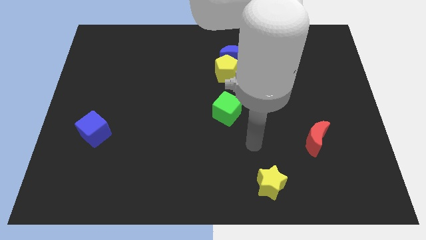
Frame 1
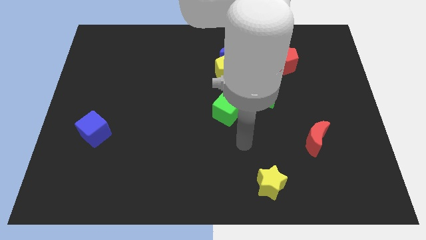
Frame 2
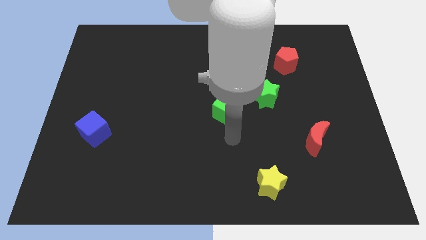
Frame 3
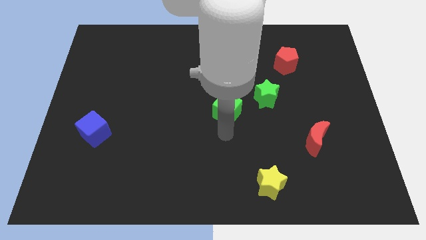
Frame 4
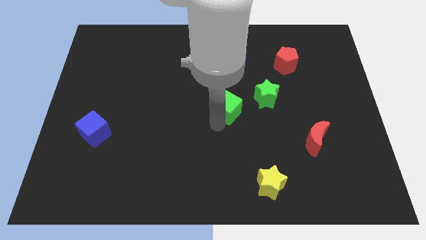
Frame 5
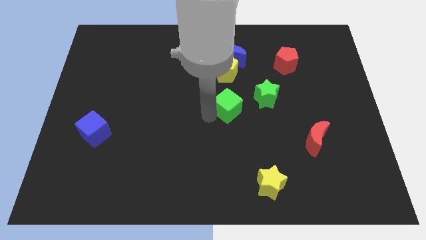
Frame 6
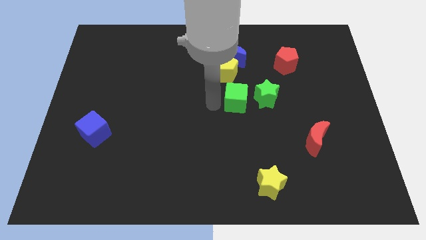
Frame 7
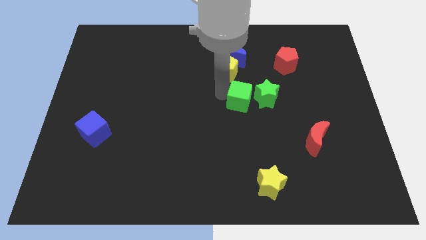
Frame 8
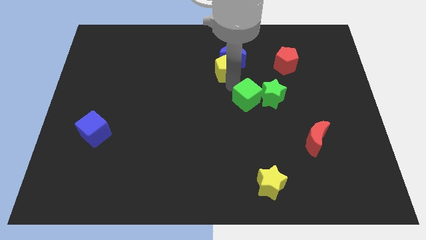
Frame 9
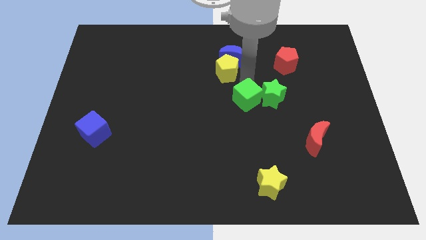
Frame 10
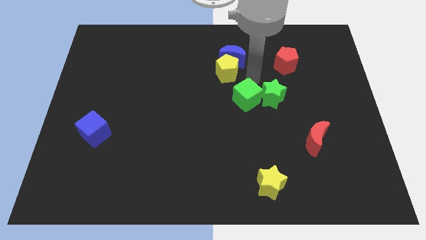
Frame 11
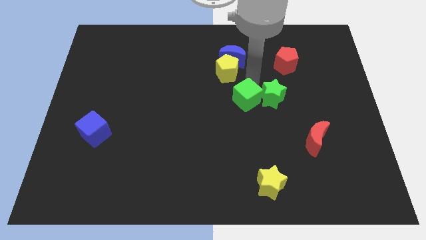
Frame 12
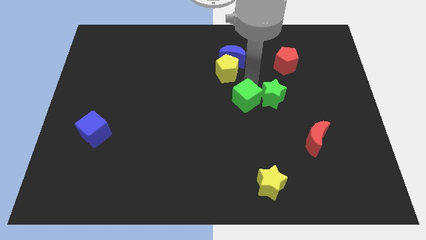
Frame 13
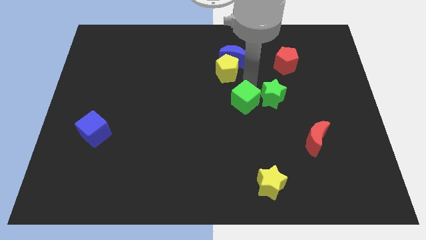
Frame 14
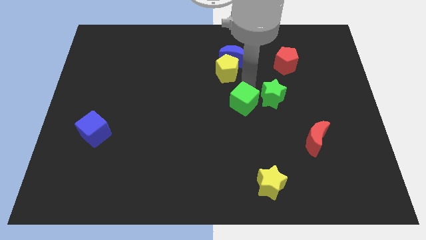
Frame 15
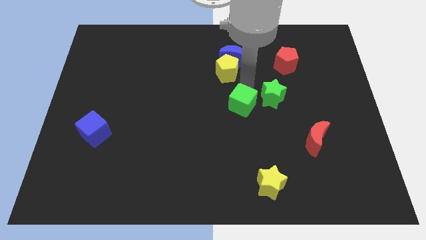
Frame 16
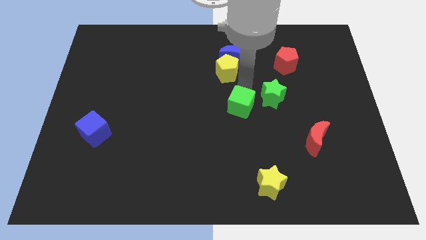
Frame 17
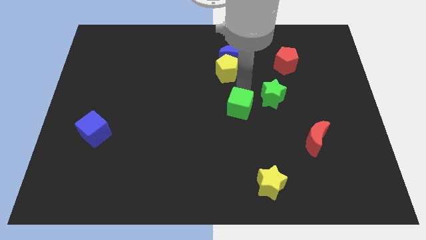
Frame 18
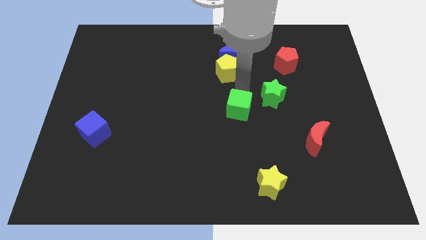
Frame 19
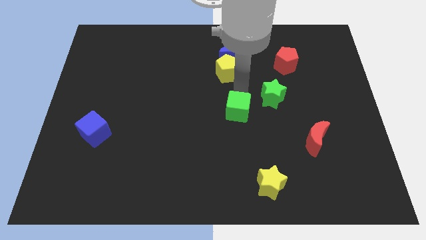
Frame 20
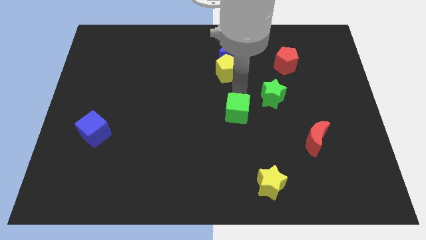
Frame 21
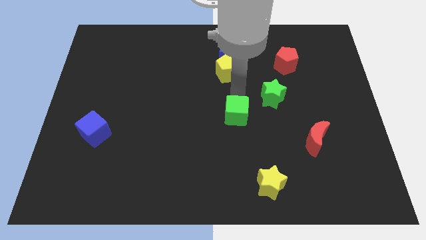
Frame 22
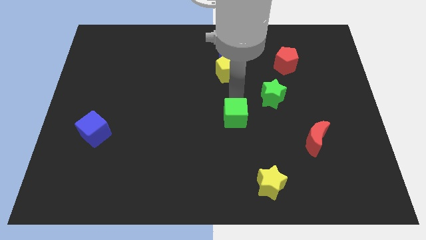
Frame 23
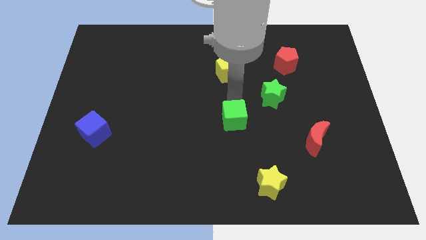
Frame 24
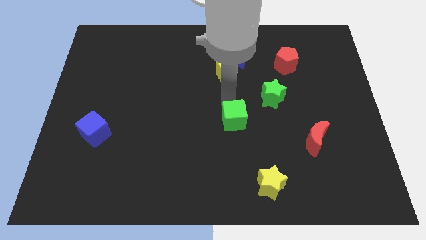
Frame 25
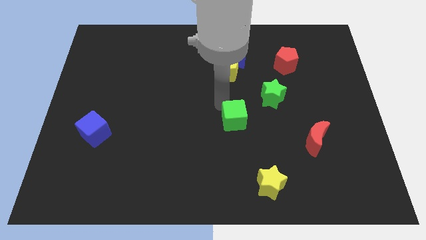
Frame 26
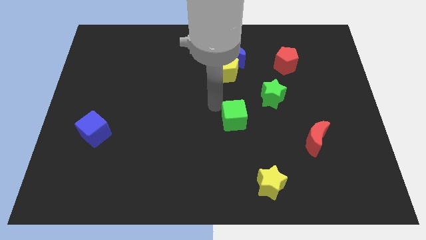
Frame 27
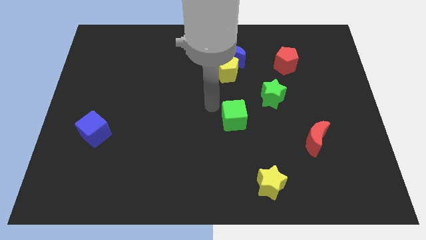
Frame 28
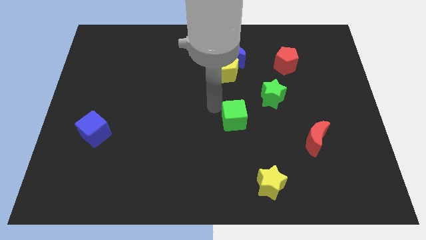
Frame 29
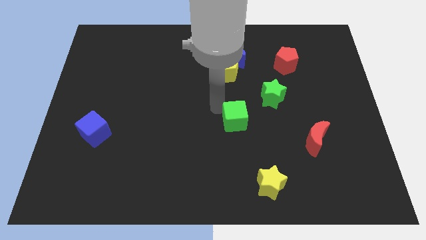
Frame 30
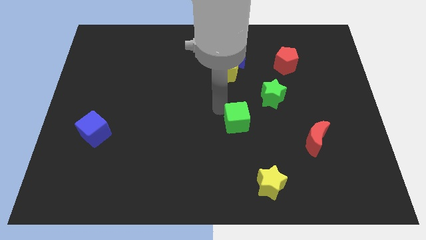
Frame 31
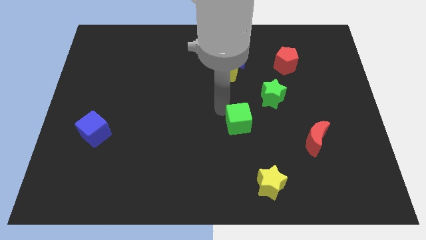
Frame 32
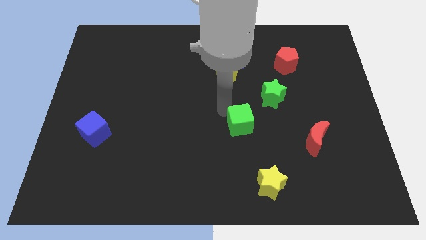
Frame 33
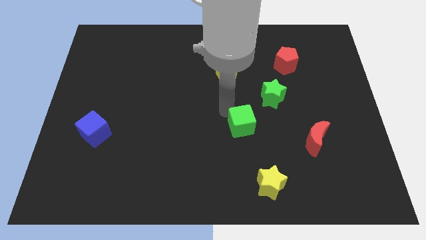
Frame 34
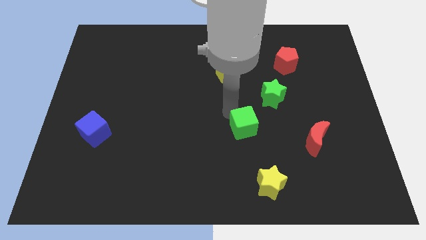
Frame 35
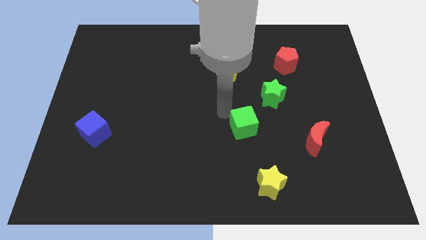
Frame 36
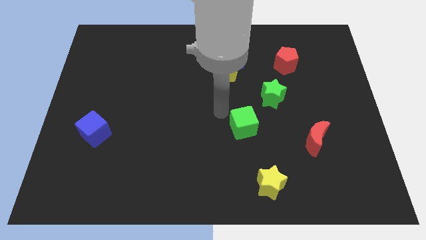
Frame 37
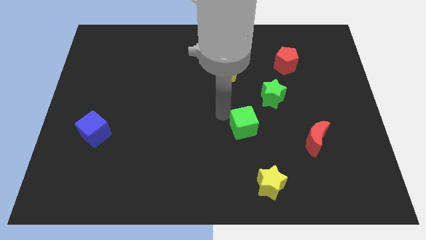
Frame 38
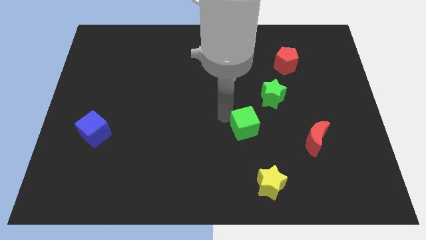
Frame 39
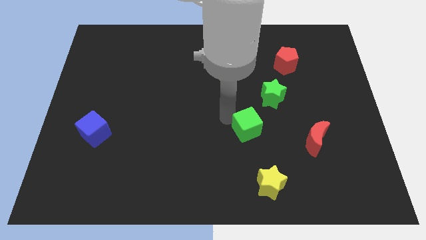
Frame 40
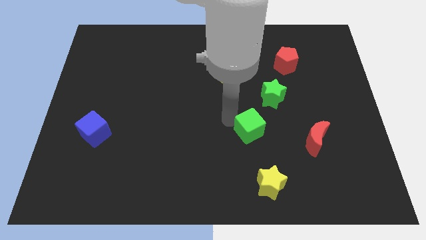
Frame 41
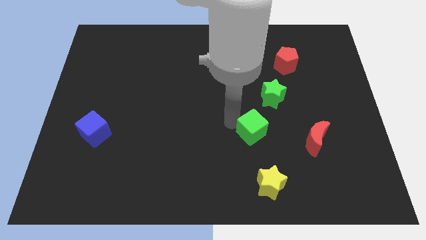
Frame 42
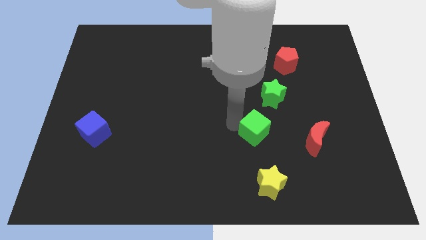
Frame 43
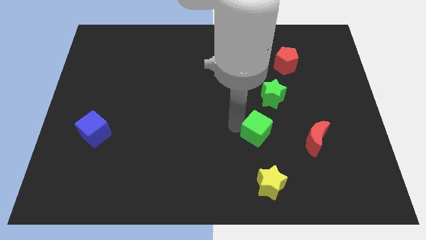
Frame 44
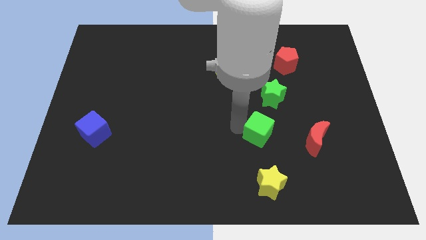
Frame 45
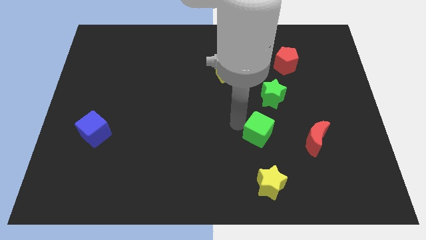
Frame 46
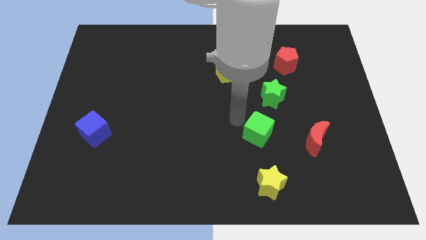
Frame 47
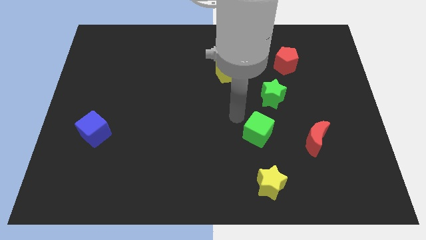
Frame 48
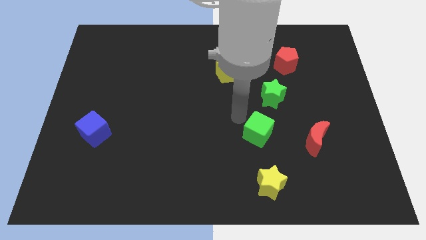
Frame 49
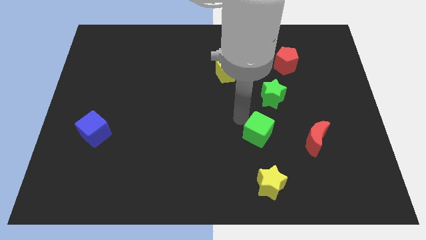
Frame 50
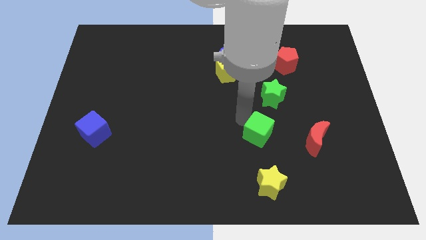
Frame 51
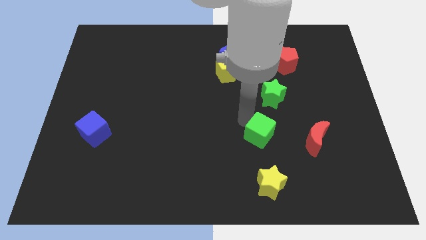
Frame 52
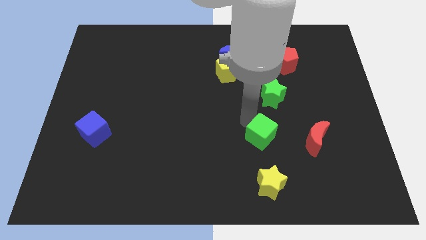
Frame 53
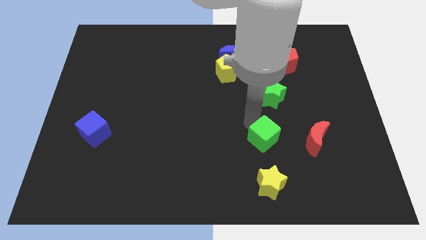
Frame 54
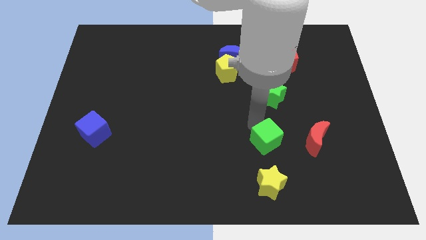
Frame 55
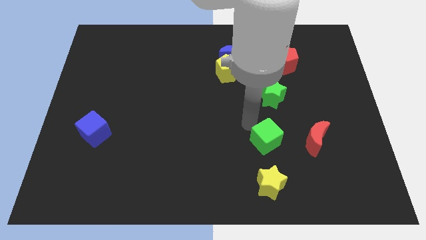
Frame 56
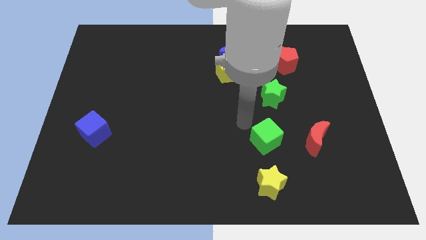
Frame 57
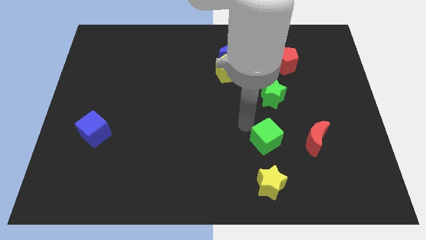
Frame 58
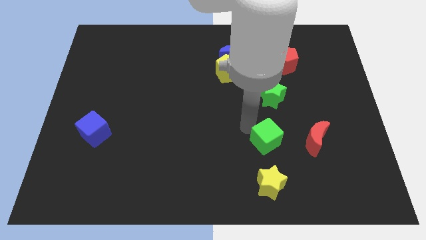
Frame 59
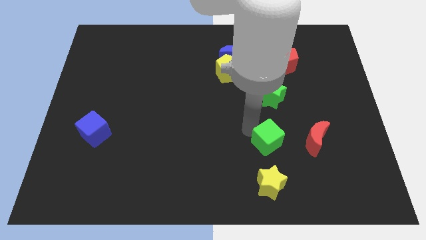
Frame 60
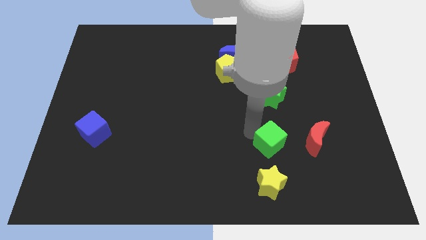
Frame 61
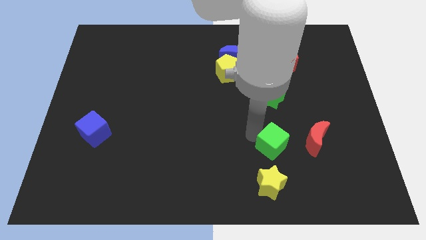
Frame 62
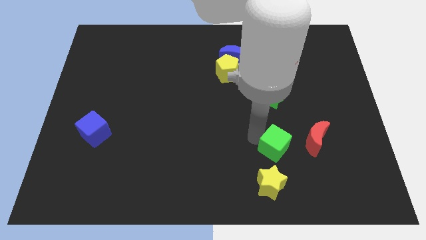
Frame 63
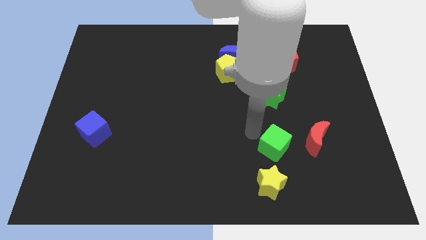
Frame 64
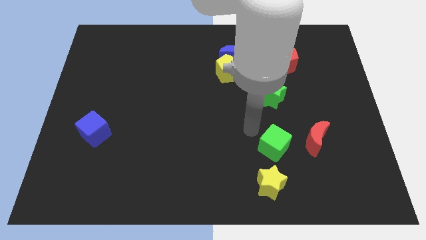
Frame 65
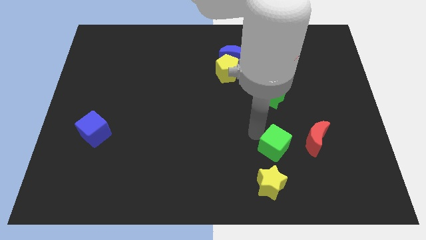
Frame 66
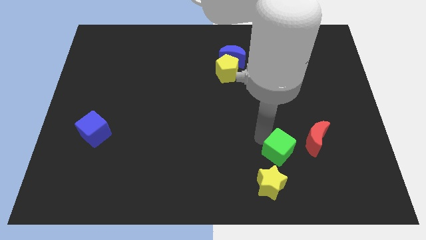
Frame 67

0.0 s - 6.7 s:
put the green cube to the bottom left side of the red moon
